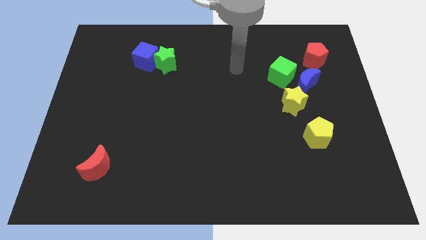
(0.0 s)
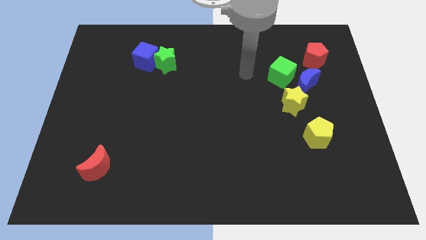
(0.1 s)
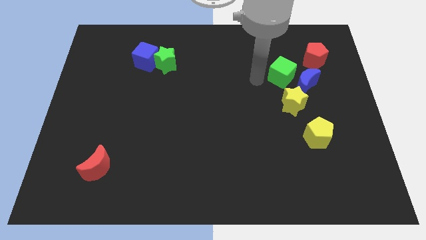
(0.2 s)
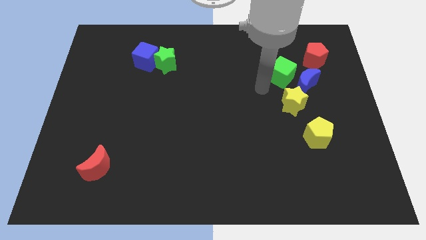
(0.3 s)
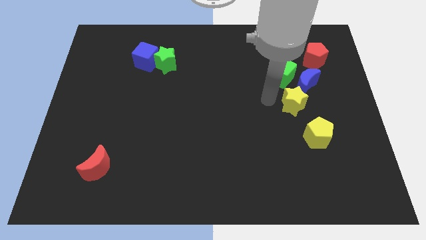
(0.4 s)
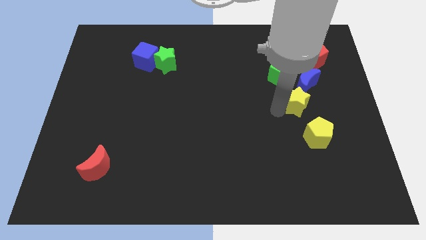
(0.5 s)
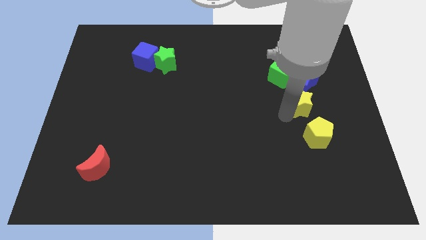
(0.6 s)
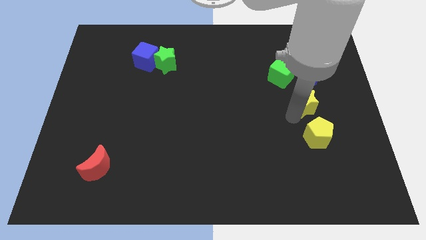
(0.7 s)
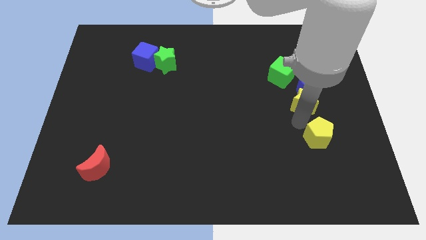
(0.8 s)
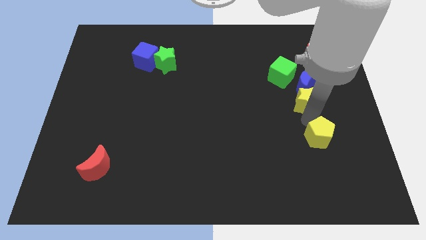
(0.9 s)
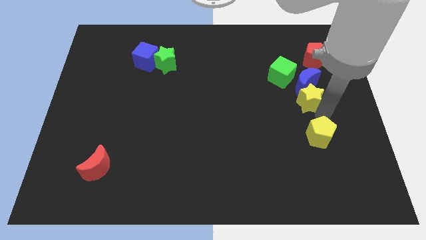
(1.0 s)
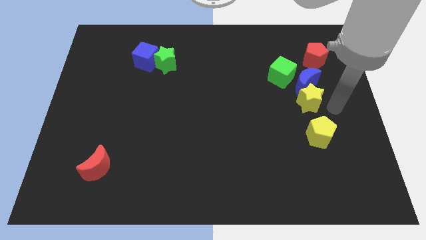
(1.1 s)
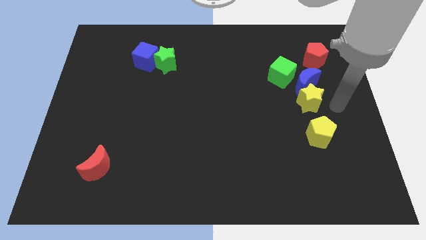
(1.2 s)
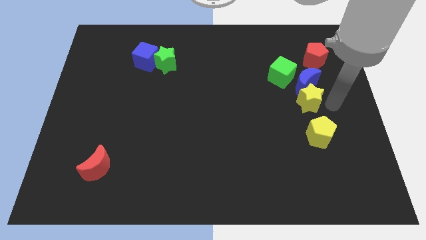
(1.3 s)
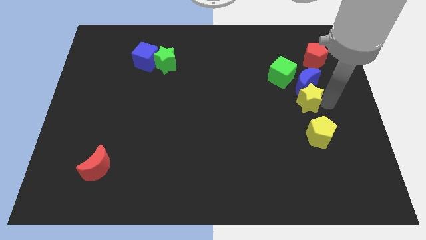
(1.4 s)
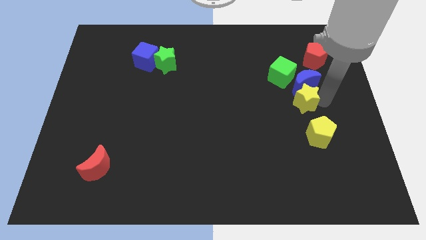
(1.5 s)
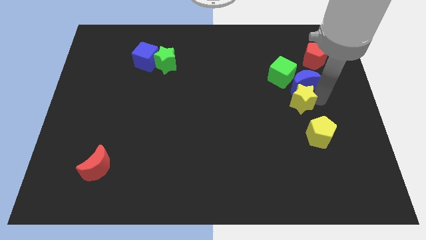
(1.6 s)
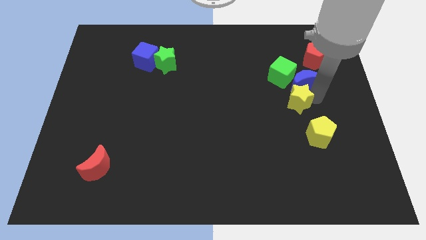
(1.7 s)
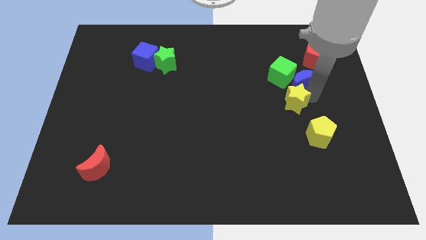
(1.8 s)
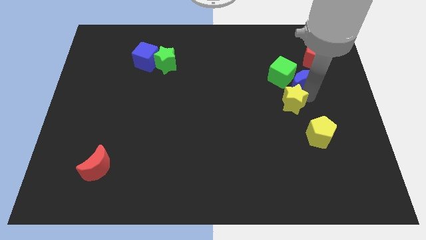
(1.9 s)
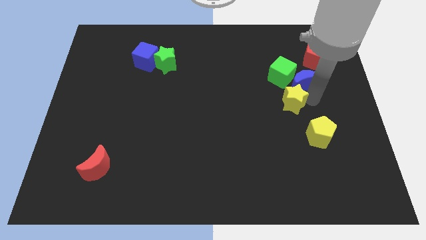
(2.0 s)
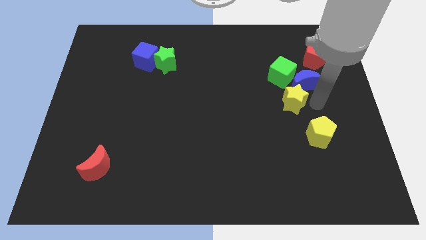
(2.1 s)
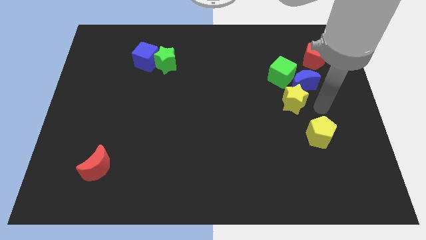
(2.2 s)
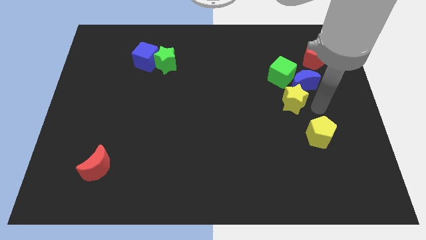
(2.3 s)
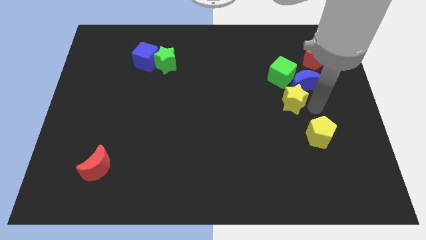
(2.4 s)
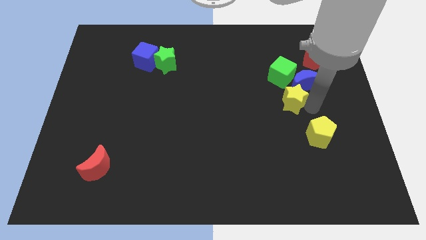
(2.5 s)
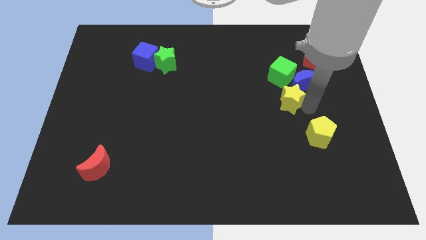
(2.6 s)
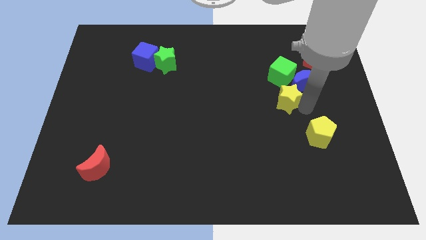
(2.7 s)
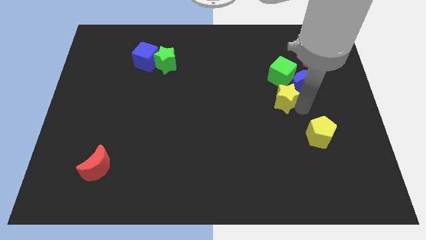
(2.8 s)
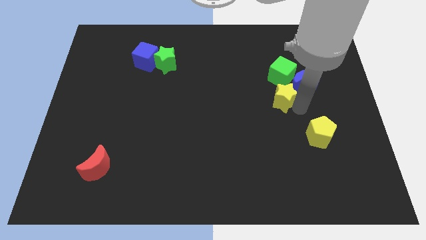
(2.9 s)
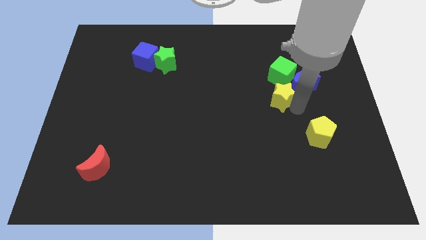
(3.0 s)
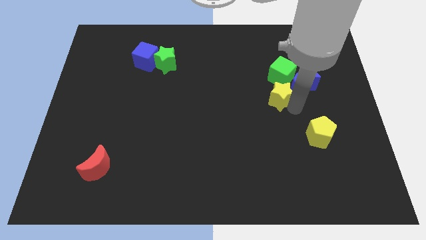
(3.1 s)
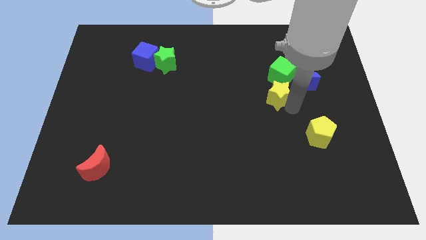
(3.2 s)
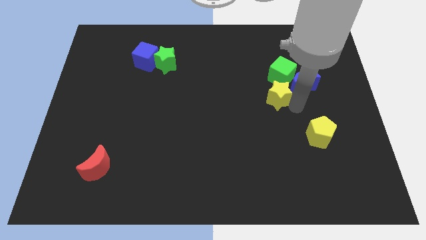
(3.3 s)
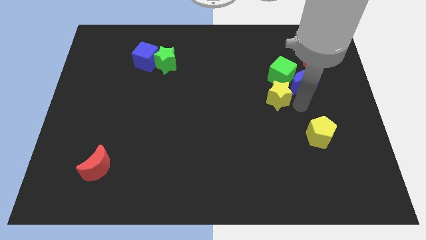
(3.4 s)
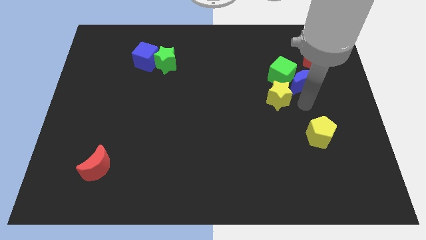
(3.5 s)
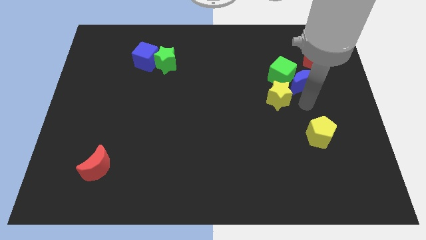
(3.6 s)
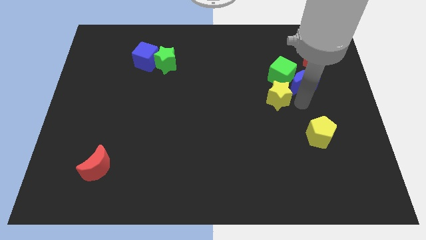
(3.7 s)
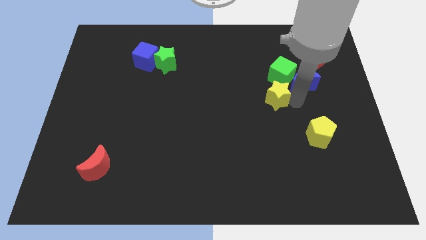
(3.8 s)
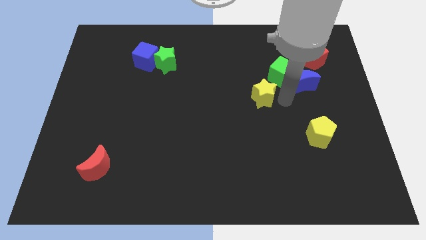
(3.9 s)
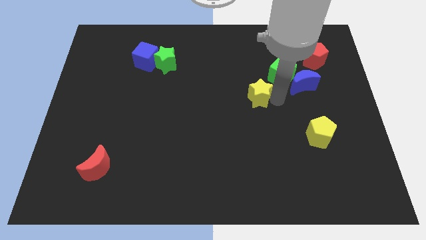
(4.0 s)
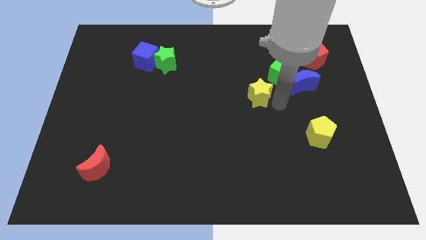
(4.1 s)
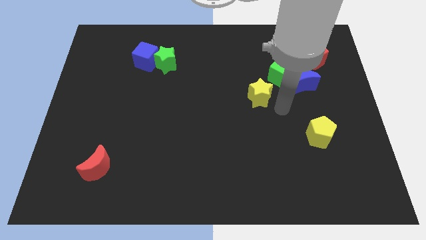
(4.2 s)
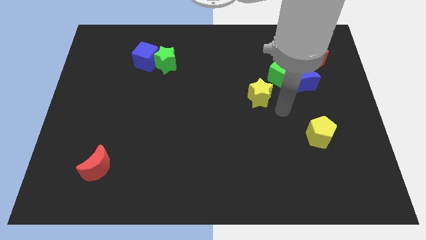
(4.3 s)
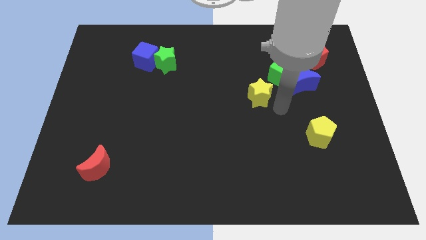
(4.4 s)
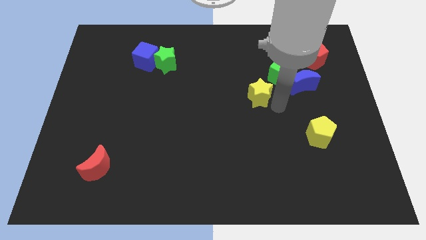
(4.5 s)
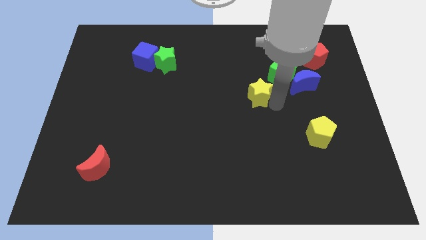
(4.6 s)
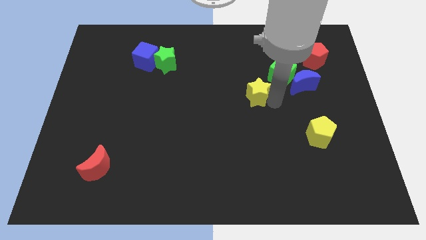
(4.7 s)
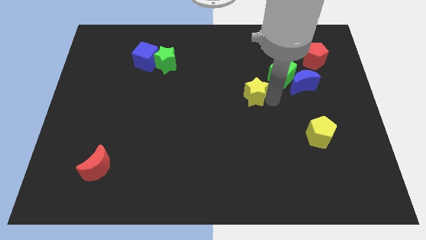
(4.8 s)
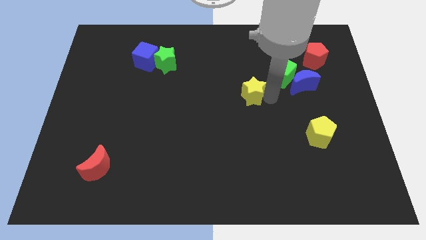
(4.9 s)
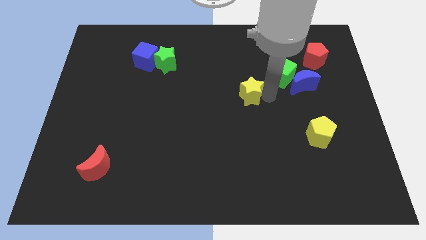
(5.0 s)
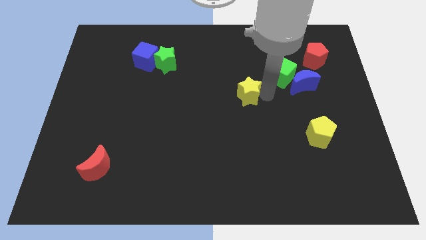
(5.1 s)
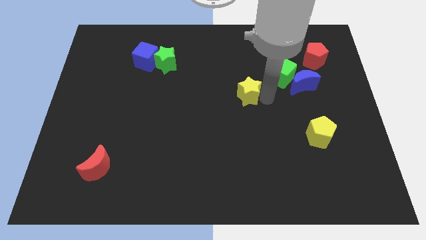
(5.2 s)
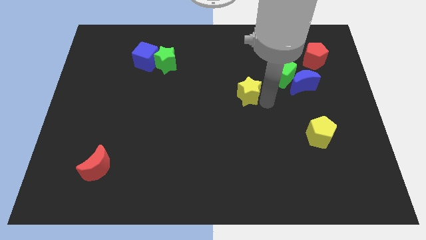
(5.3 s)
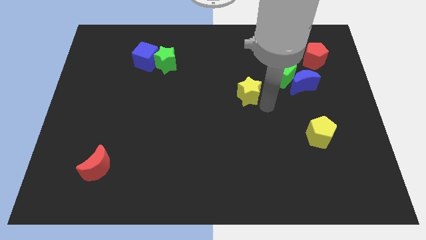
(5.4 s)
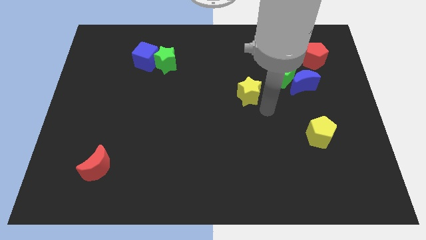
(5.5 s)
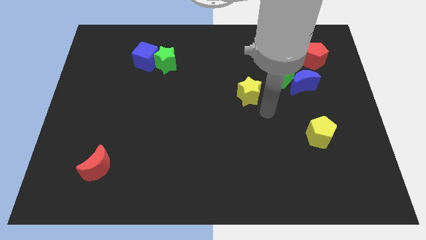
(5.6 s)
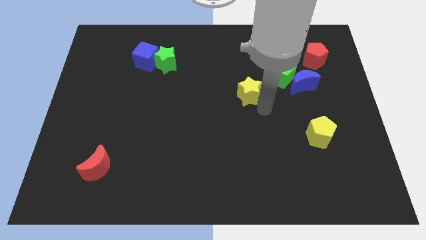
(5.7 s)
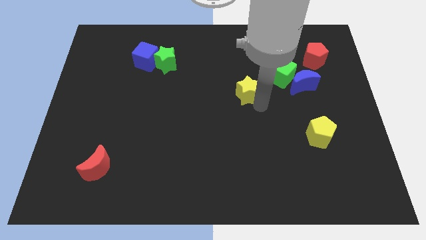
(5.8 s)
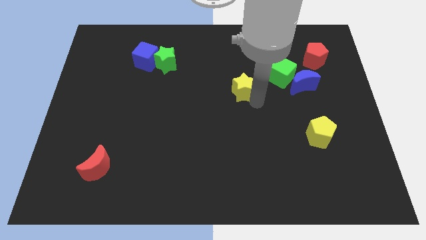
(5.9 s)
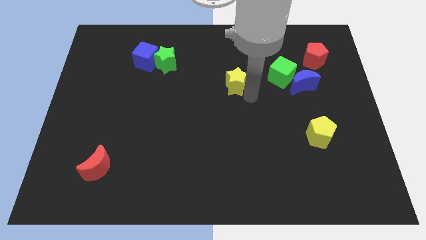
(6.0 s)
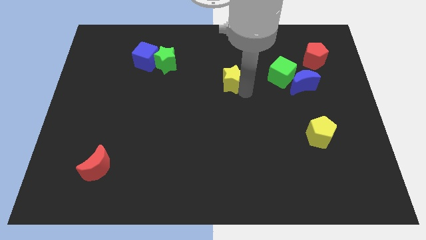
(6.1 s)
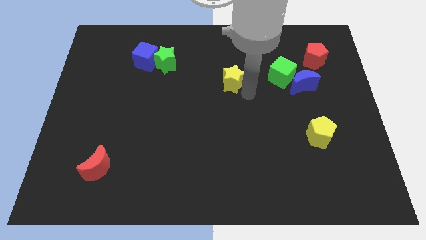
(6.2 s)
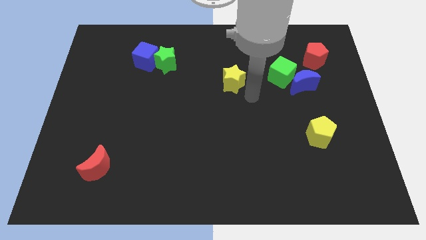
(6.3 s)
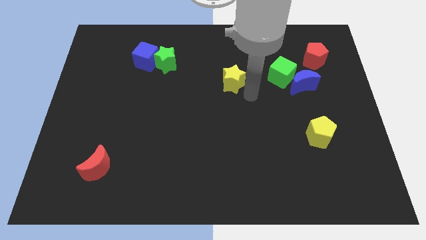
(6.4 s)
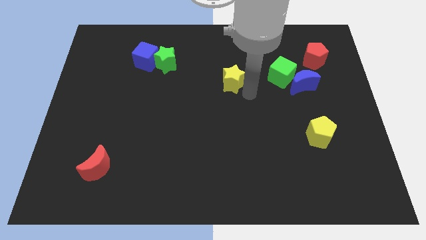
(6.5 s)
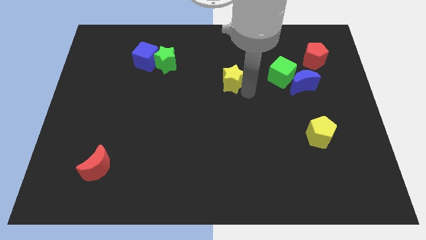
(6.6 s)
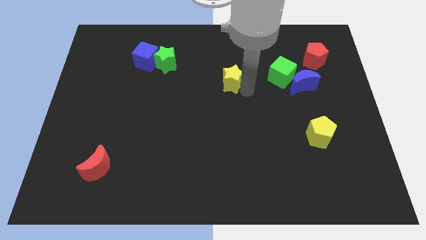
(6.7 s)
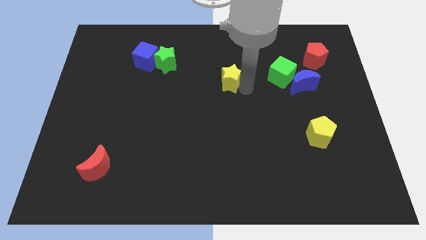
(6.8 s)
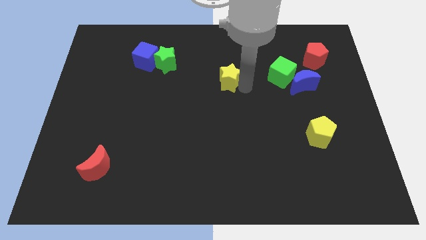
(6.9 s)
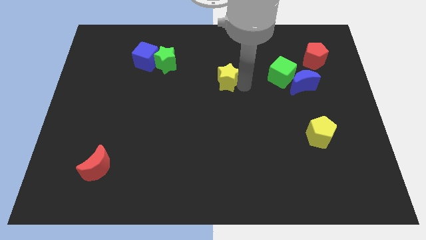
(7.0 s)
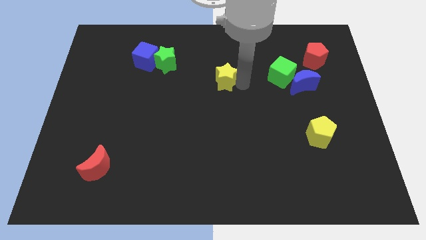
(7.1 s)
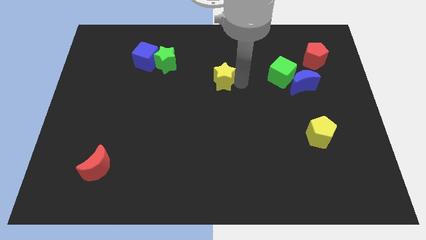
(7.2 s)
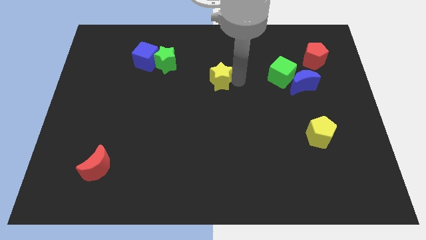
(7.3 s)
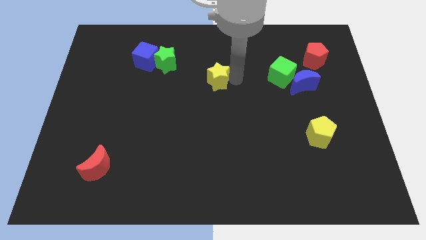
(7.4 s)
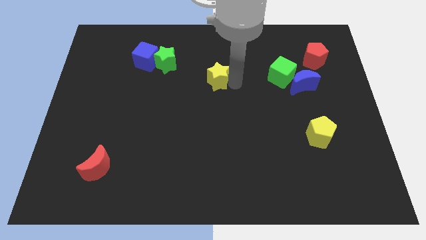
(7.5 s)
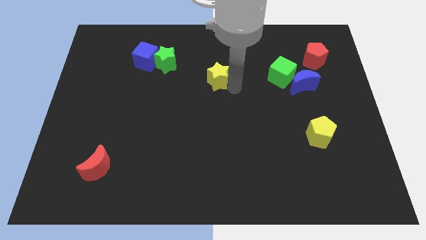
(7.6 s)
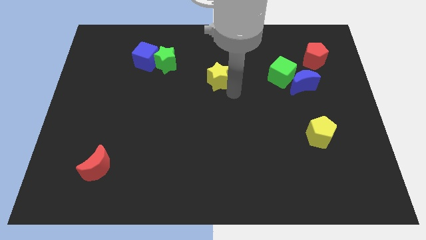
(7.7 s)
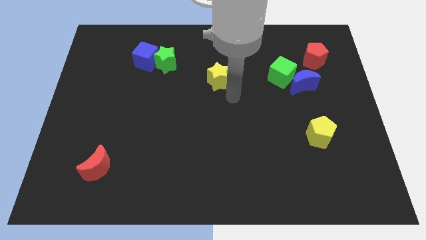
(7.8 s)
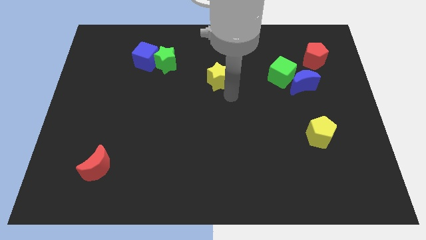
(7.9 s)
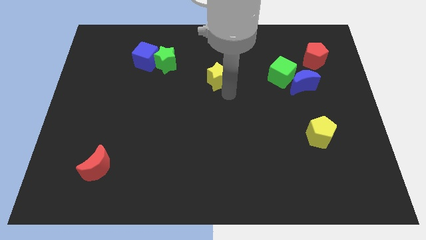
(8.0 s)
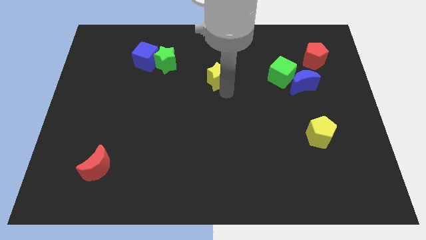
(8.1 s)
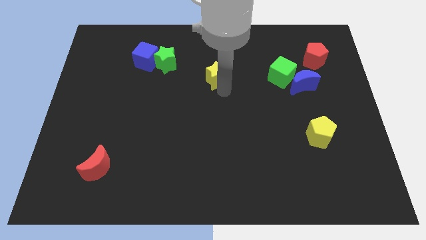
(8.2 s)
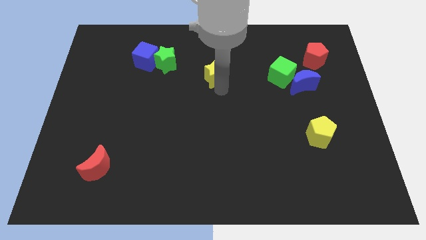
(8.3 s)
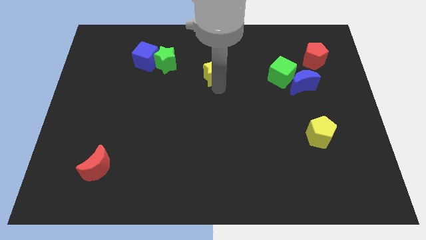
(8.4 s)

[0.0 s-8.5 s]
put the yellow star just right of the green star
